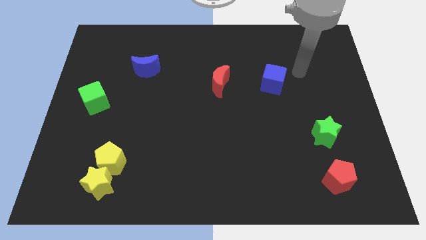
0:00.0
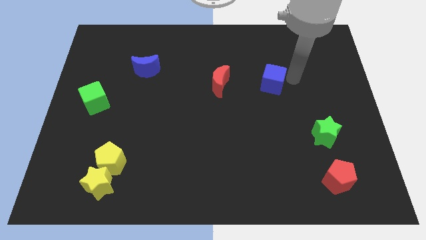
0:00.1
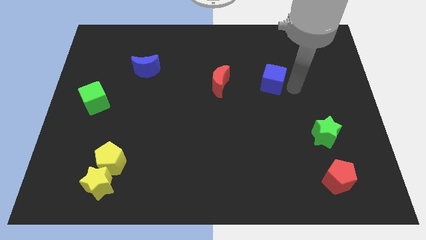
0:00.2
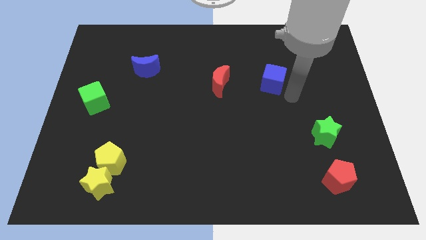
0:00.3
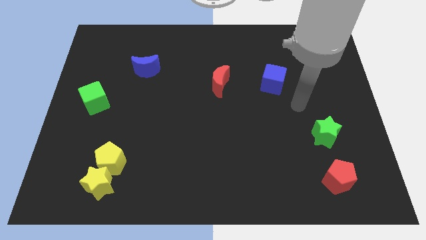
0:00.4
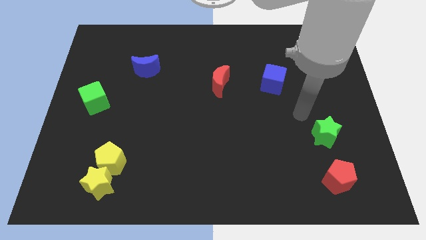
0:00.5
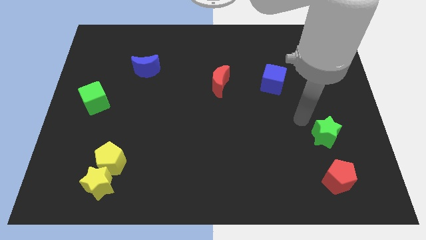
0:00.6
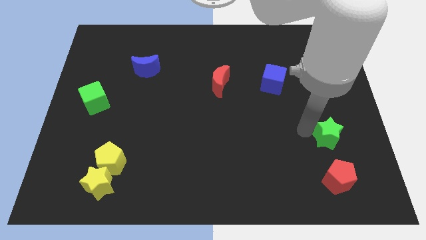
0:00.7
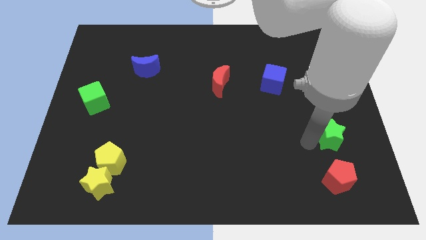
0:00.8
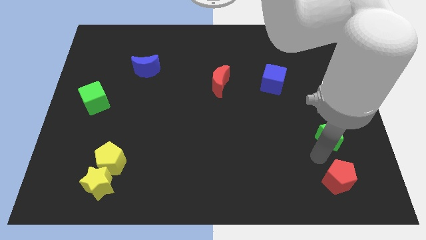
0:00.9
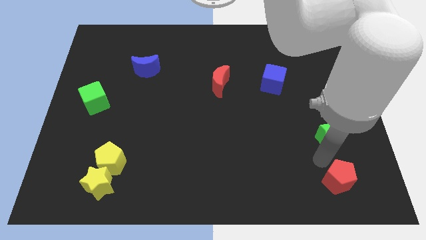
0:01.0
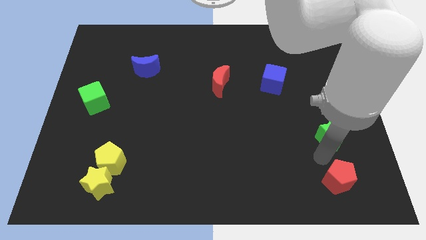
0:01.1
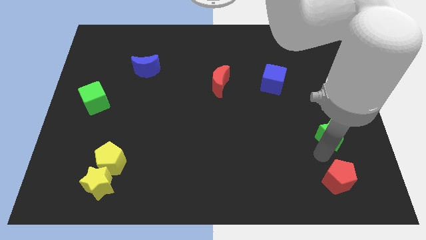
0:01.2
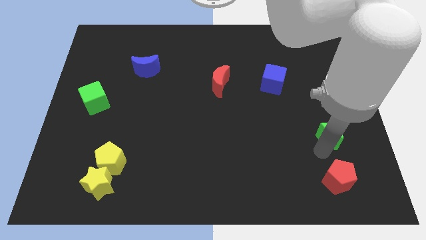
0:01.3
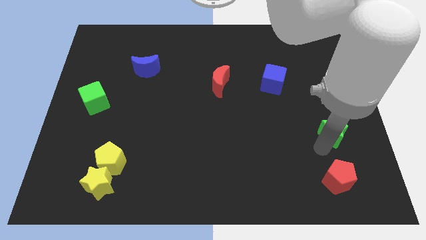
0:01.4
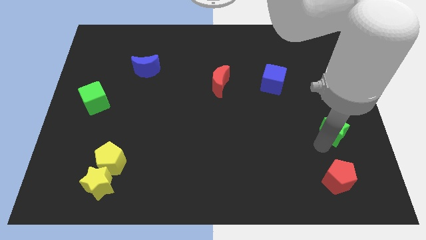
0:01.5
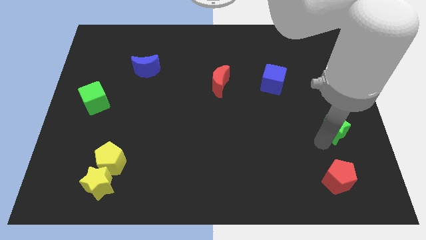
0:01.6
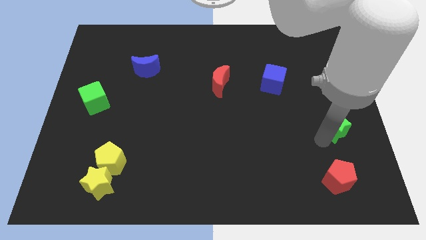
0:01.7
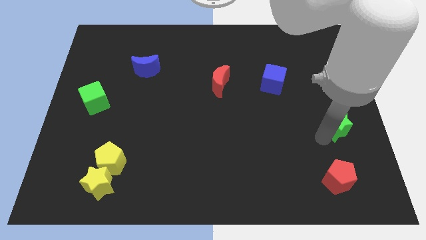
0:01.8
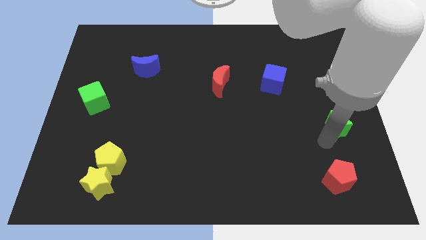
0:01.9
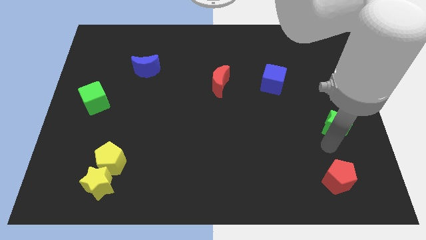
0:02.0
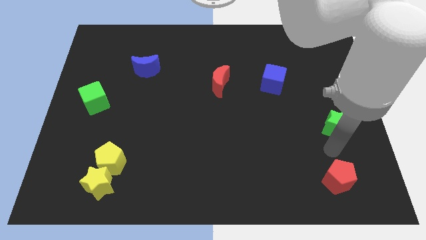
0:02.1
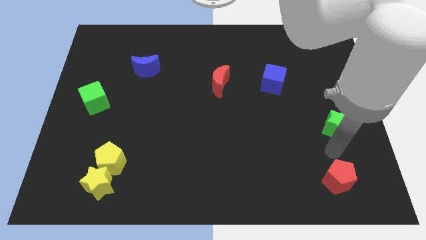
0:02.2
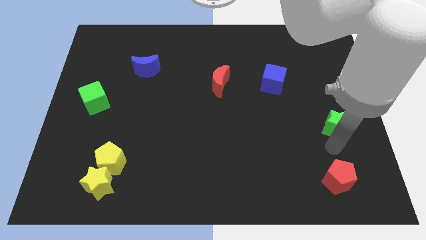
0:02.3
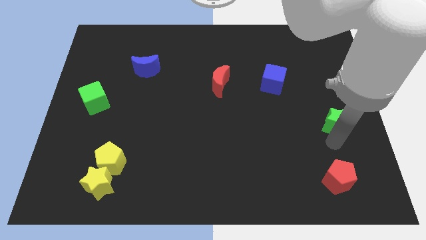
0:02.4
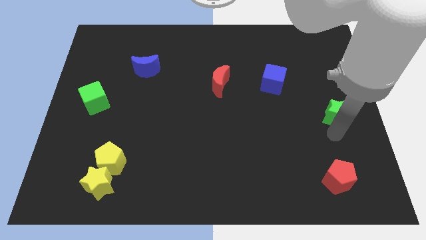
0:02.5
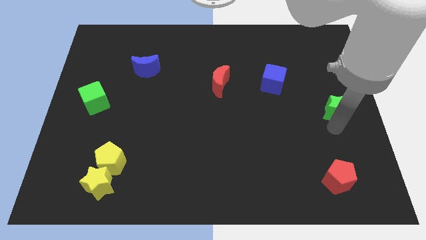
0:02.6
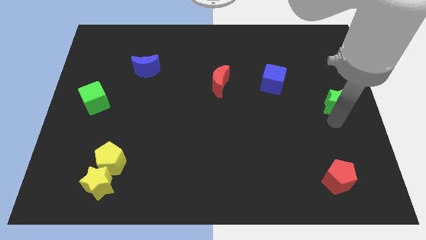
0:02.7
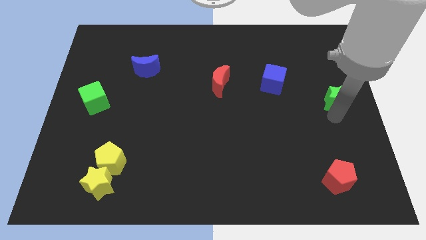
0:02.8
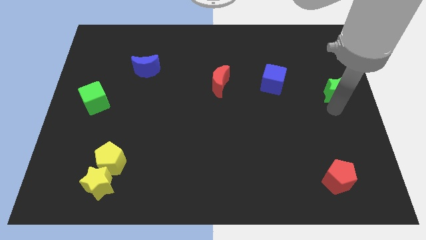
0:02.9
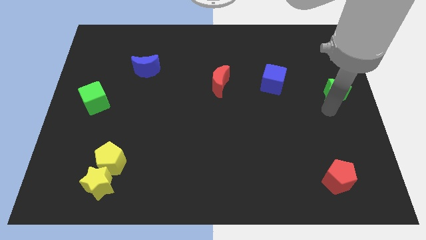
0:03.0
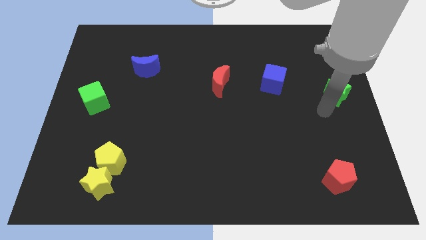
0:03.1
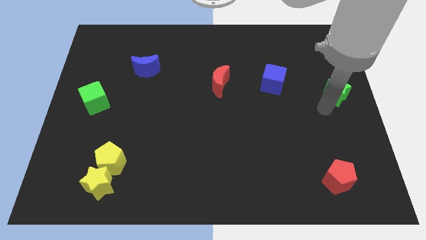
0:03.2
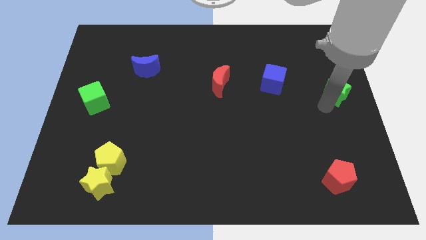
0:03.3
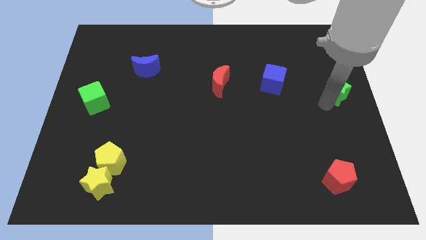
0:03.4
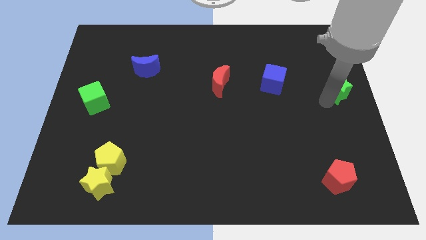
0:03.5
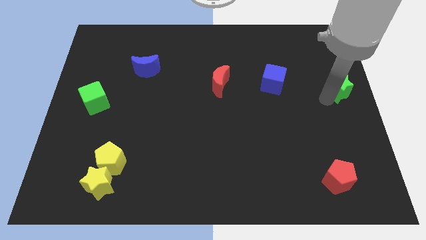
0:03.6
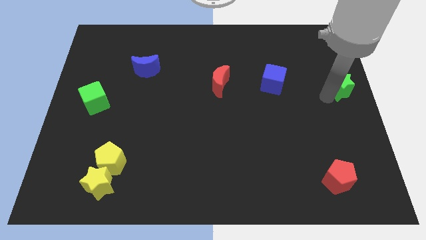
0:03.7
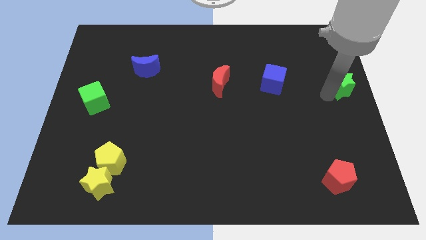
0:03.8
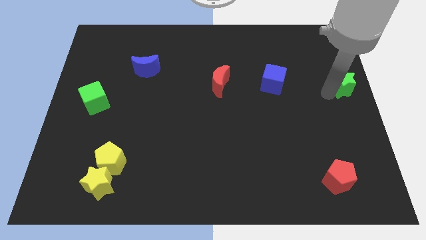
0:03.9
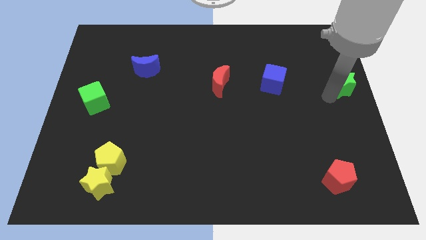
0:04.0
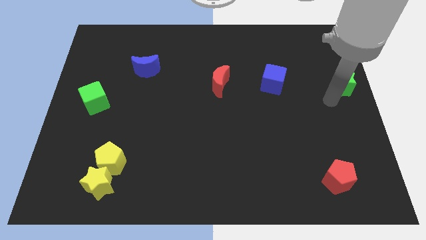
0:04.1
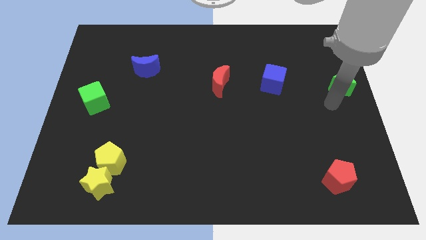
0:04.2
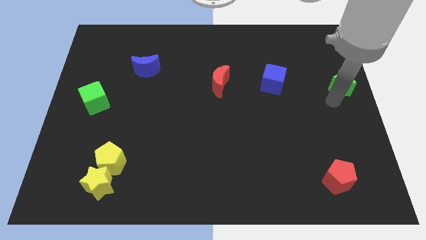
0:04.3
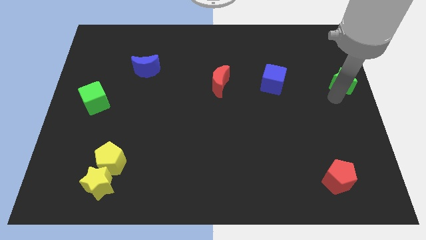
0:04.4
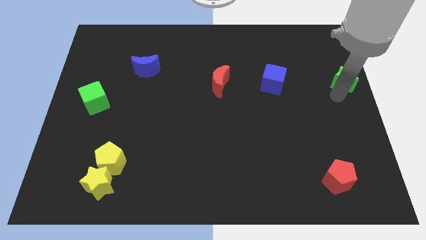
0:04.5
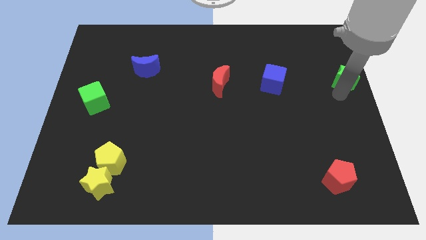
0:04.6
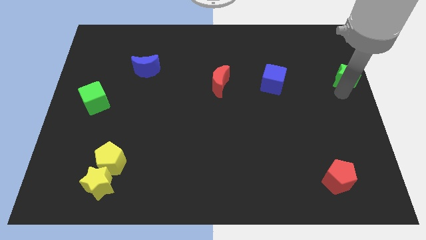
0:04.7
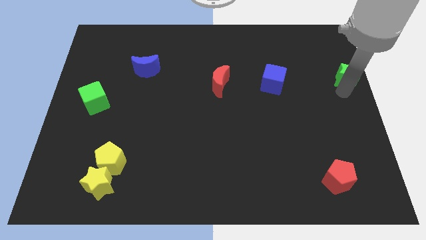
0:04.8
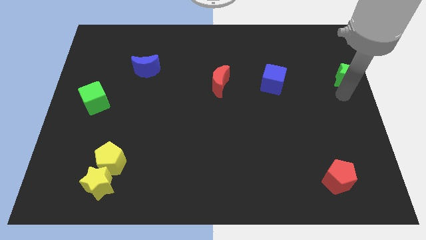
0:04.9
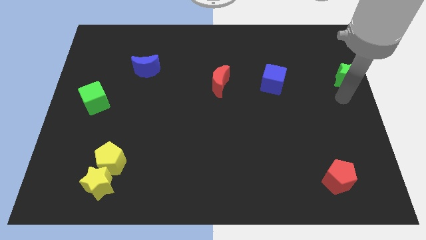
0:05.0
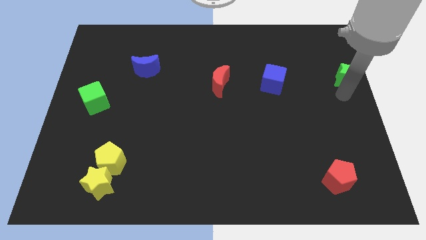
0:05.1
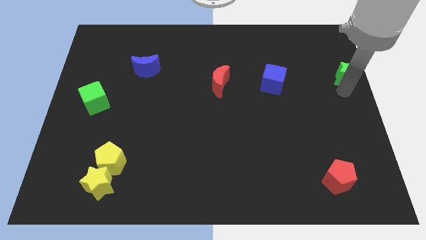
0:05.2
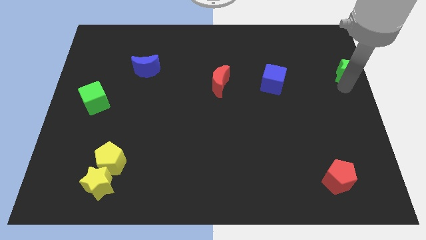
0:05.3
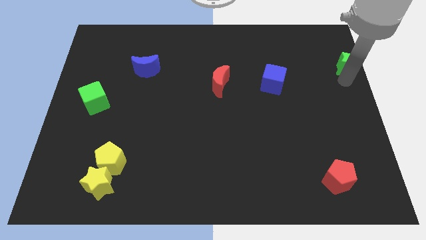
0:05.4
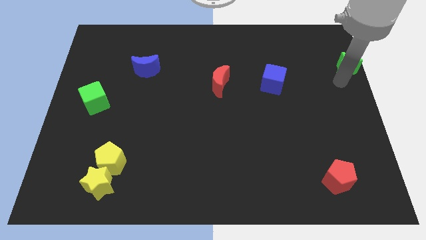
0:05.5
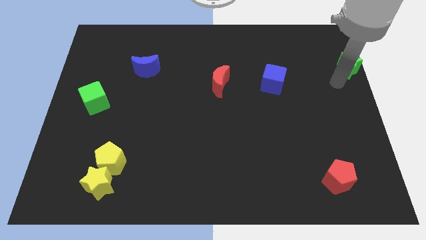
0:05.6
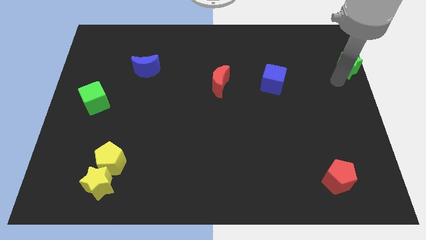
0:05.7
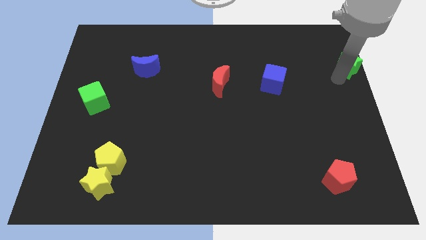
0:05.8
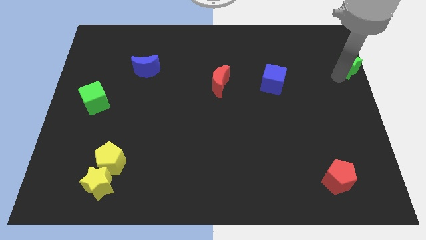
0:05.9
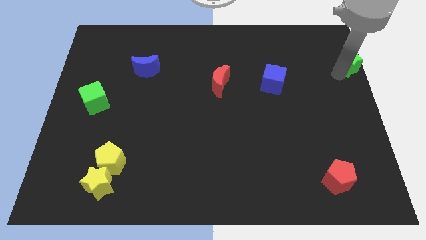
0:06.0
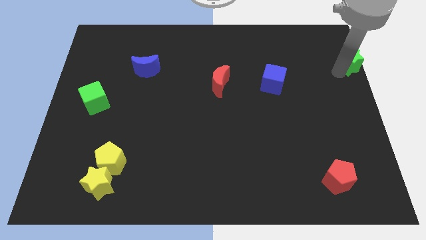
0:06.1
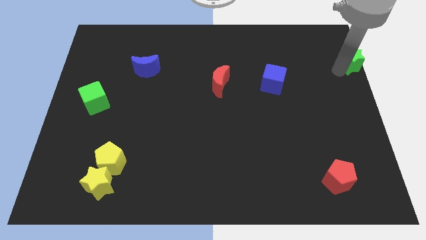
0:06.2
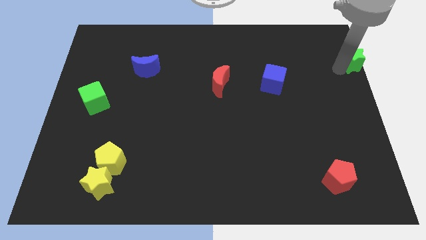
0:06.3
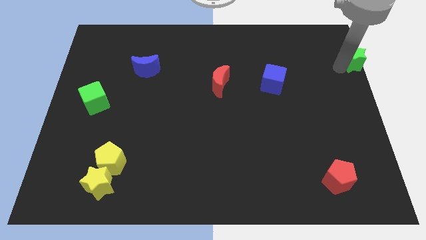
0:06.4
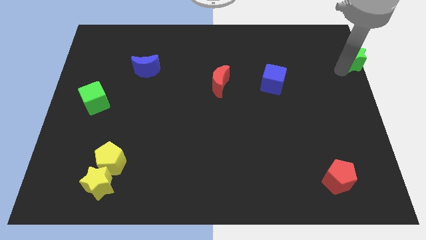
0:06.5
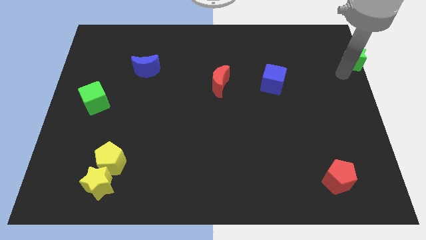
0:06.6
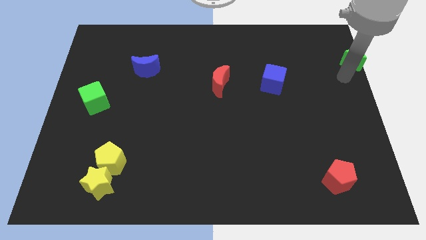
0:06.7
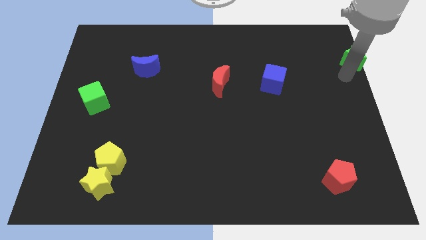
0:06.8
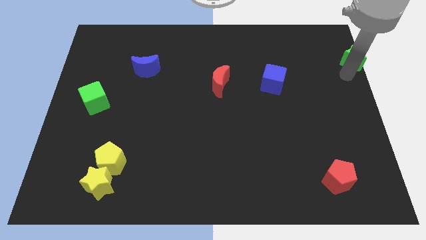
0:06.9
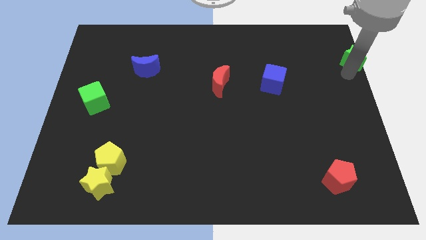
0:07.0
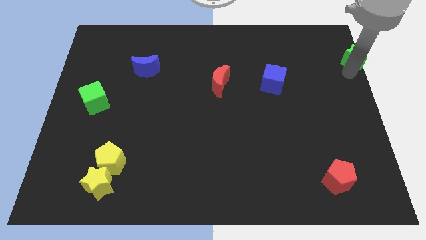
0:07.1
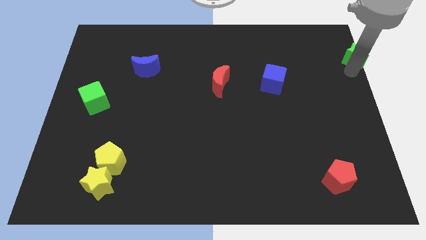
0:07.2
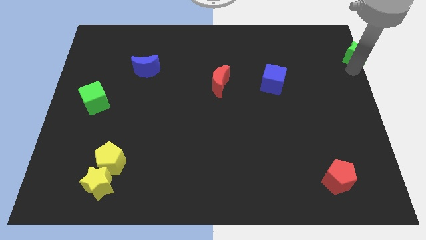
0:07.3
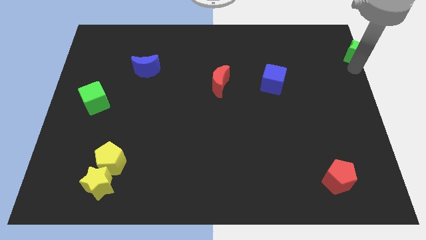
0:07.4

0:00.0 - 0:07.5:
put the green star to the upper right corner
